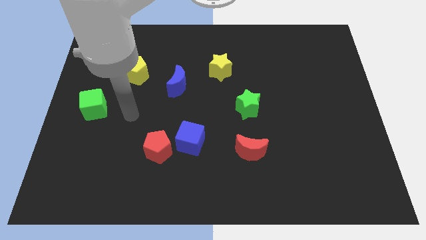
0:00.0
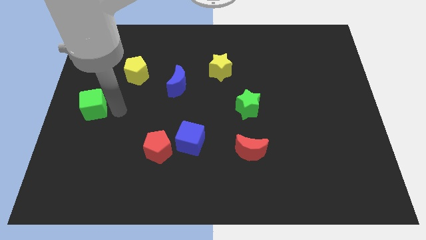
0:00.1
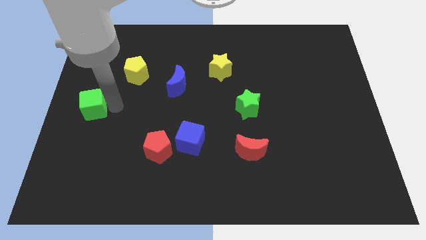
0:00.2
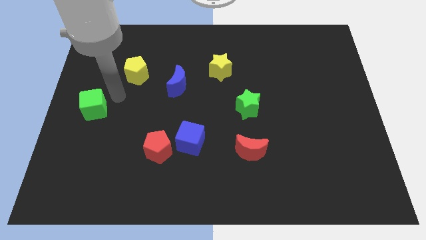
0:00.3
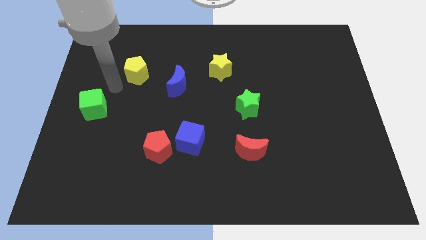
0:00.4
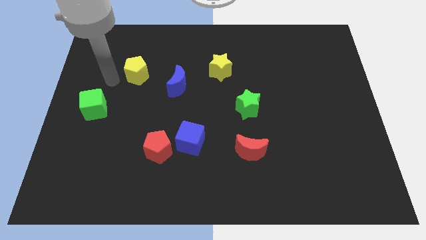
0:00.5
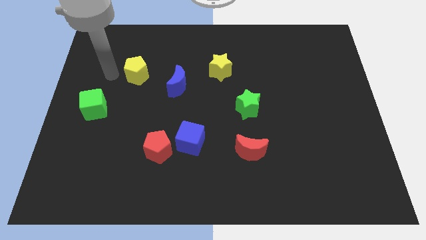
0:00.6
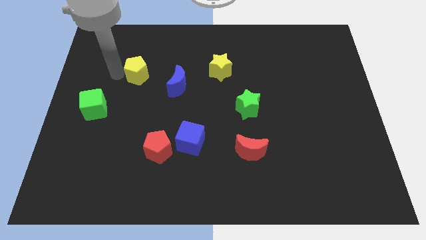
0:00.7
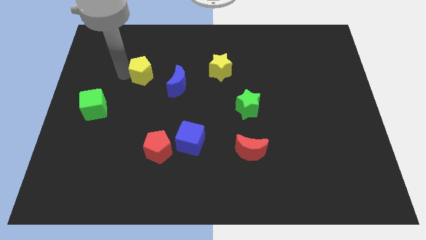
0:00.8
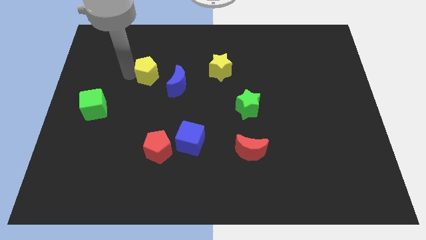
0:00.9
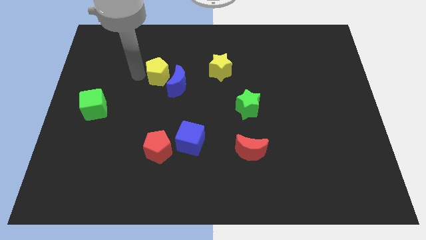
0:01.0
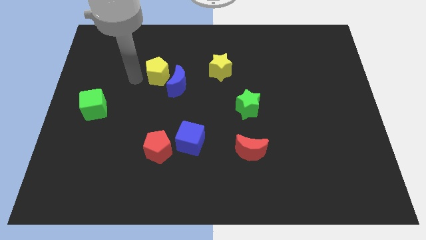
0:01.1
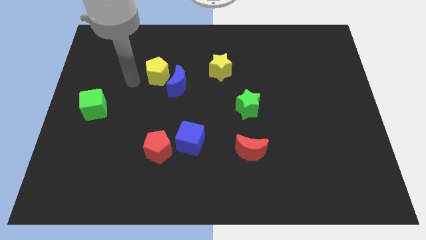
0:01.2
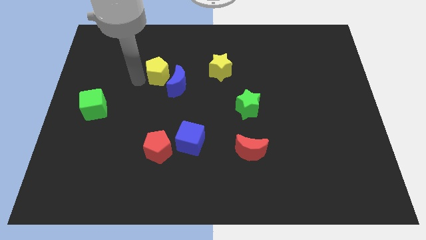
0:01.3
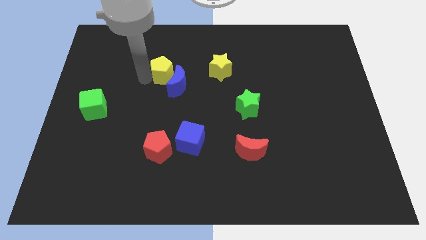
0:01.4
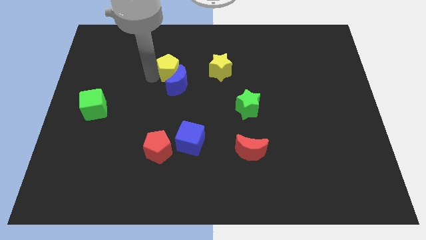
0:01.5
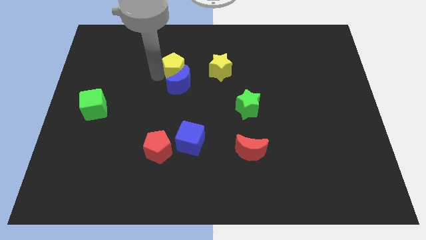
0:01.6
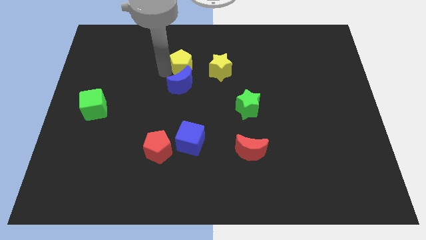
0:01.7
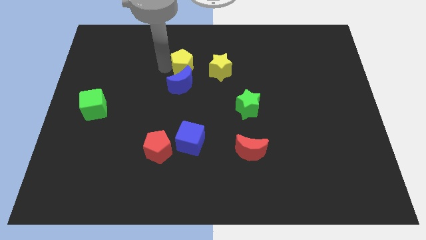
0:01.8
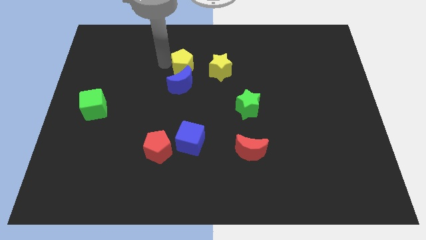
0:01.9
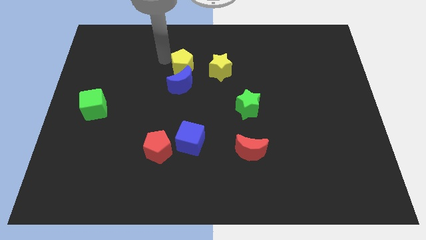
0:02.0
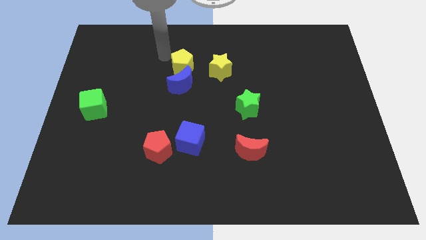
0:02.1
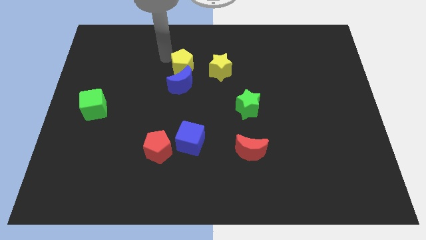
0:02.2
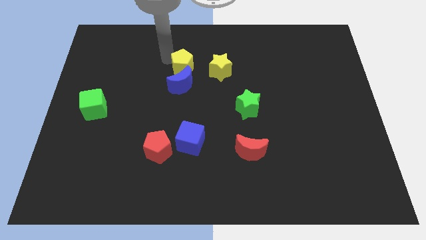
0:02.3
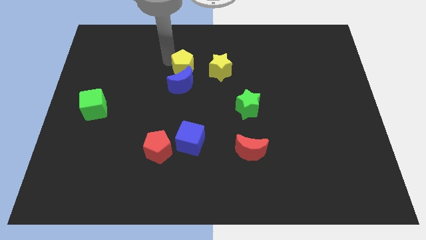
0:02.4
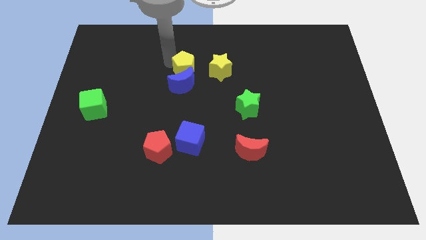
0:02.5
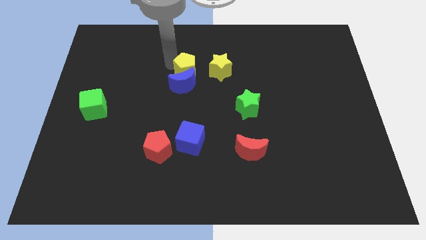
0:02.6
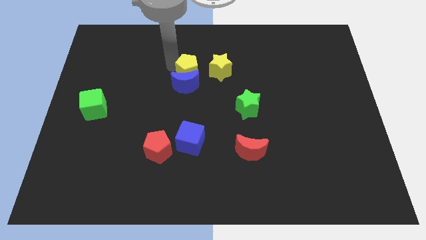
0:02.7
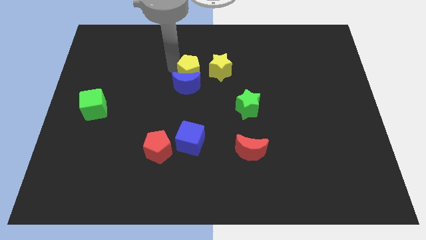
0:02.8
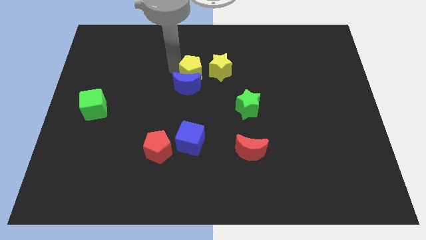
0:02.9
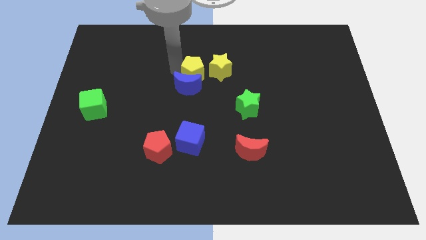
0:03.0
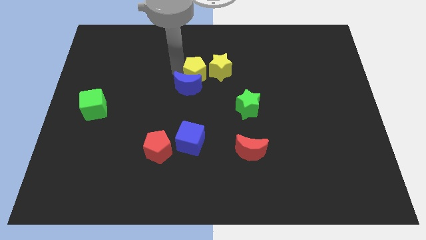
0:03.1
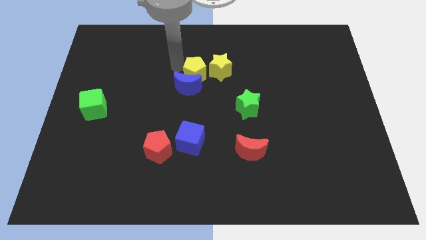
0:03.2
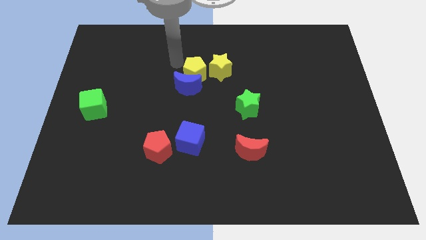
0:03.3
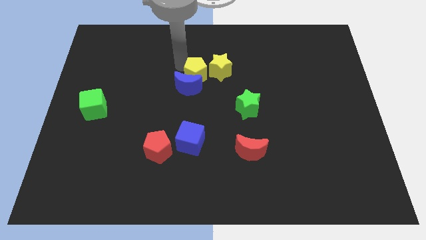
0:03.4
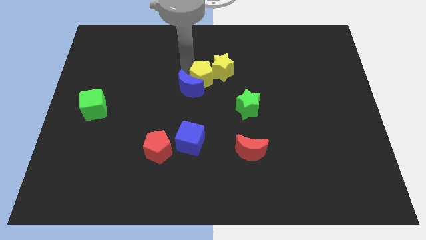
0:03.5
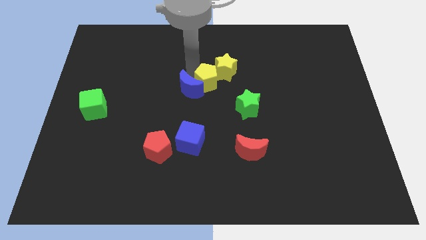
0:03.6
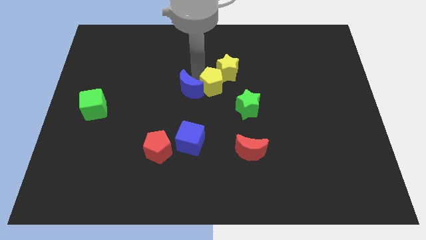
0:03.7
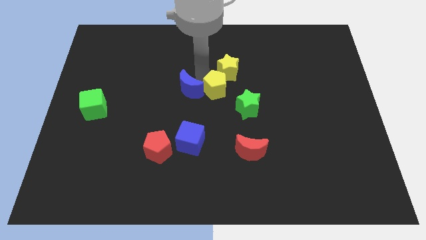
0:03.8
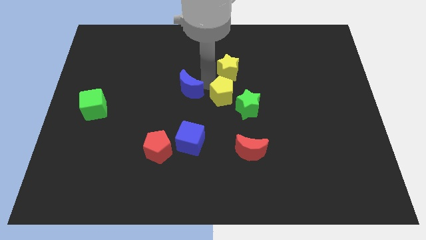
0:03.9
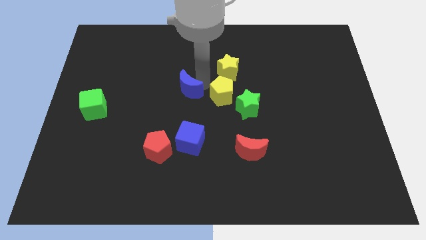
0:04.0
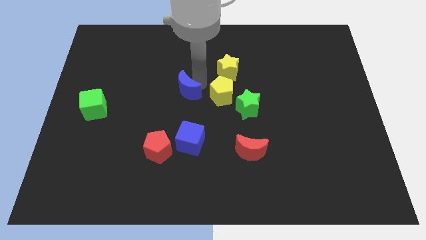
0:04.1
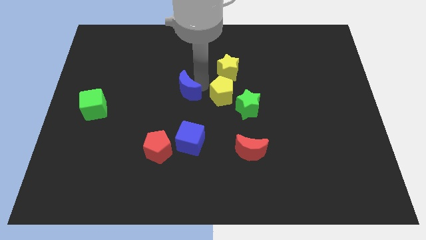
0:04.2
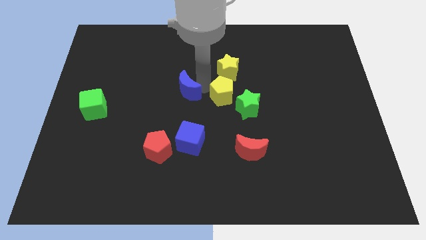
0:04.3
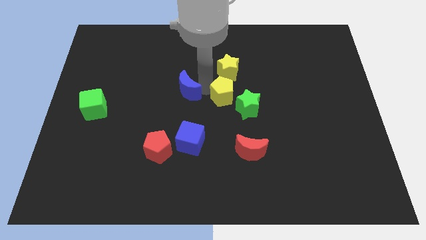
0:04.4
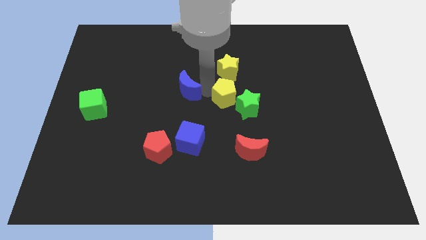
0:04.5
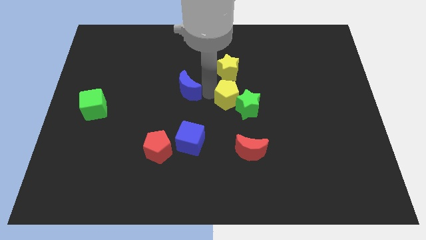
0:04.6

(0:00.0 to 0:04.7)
put the yellow pentagon to the green star

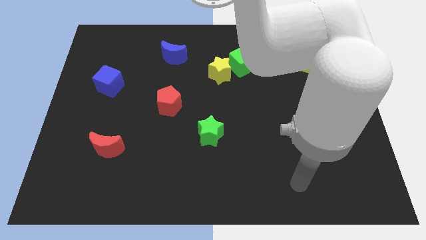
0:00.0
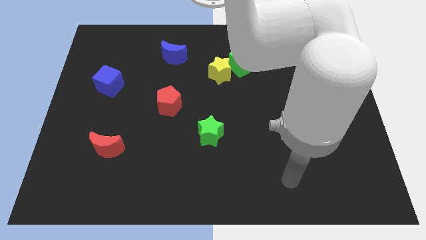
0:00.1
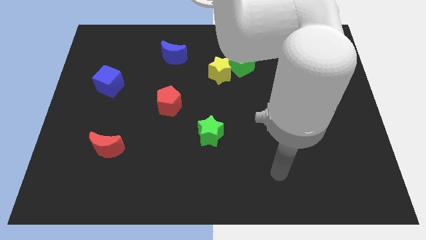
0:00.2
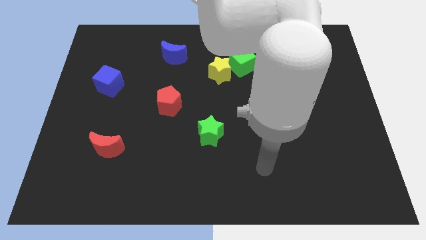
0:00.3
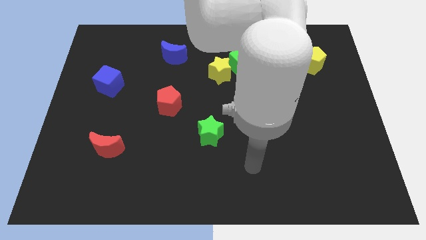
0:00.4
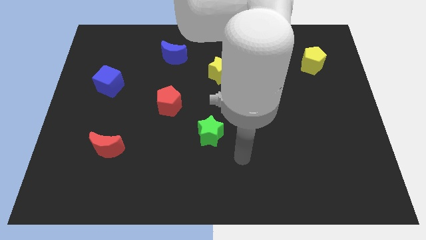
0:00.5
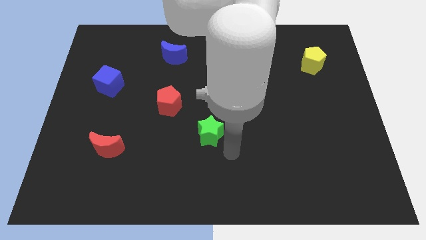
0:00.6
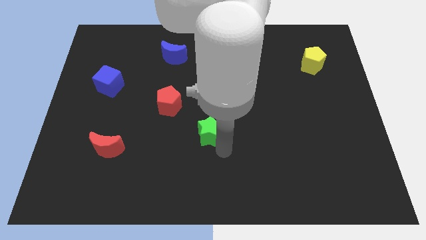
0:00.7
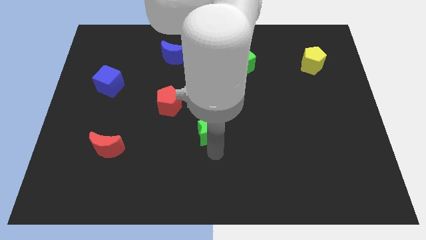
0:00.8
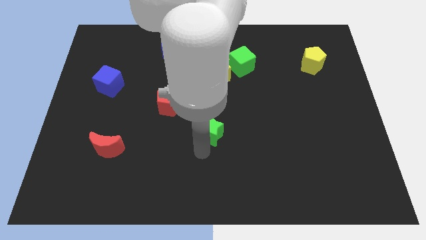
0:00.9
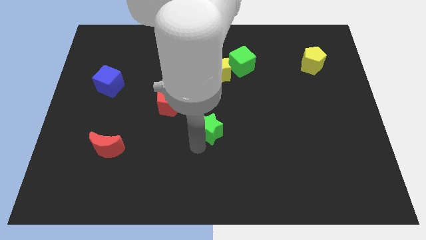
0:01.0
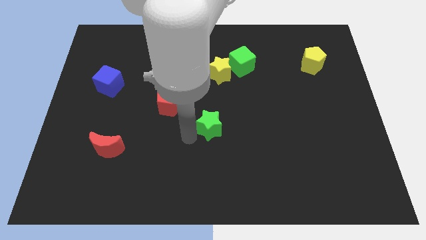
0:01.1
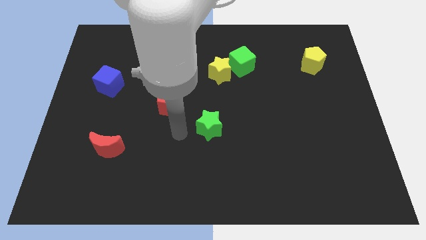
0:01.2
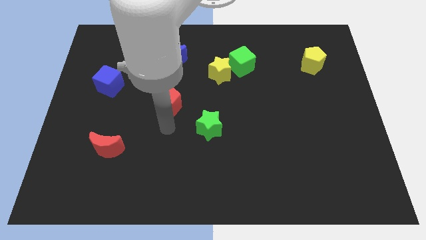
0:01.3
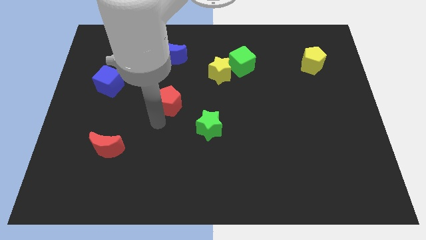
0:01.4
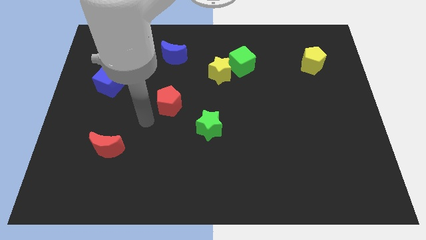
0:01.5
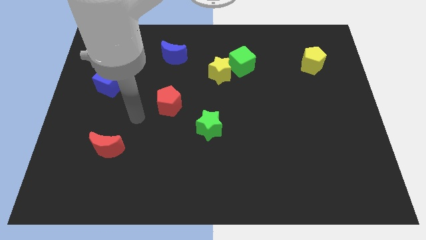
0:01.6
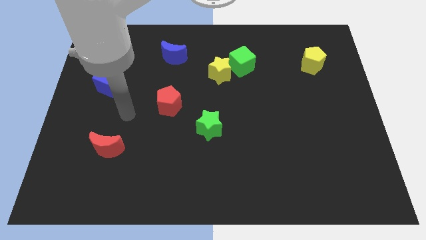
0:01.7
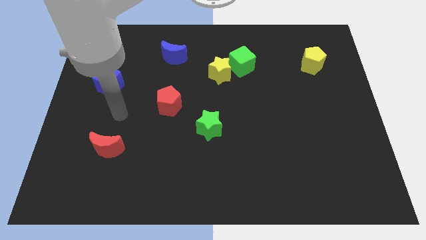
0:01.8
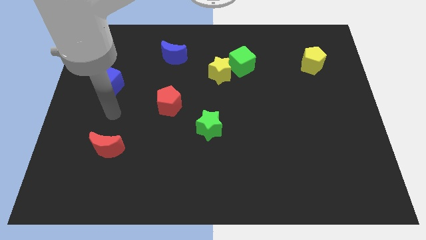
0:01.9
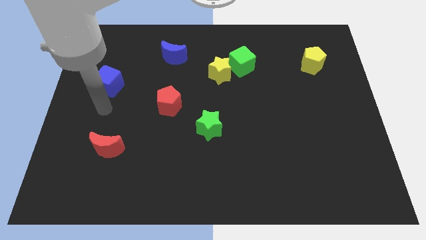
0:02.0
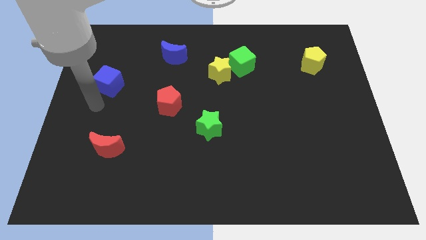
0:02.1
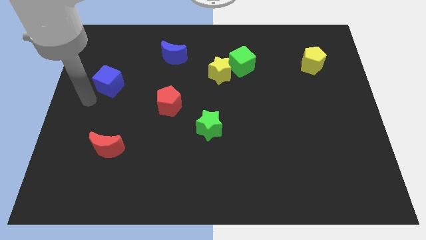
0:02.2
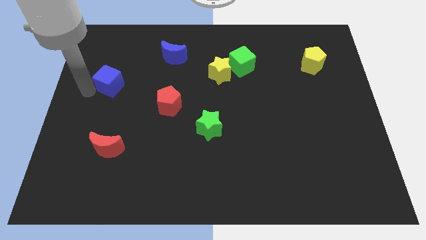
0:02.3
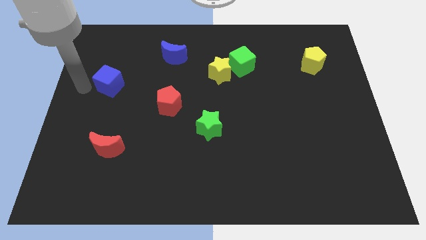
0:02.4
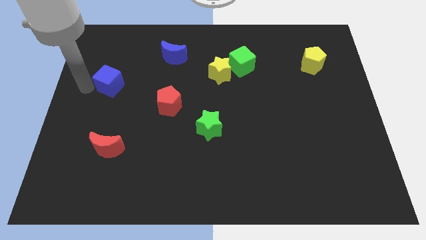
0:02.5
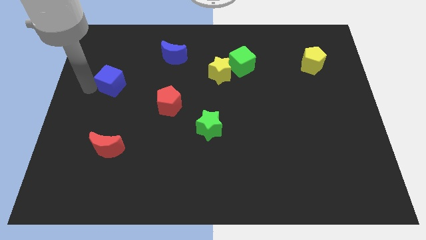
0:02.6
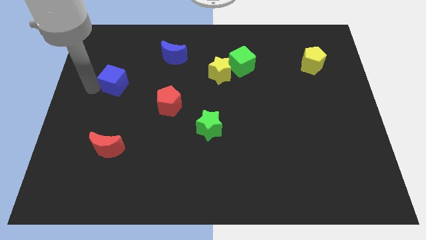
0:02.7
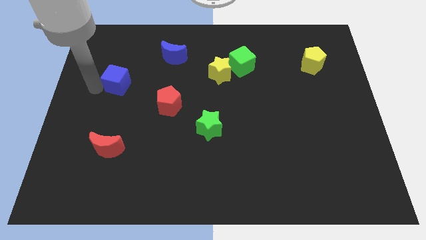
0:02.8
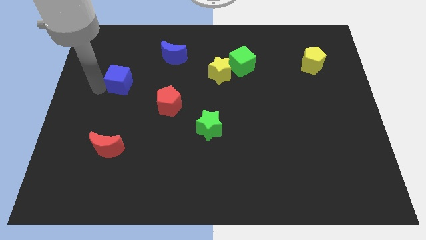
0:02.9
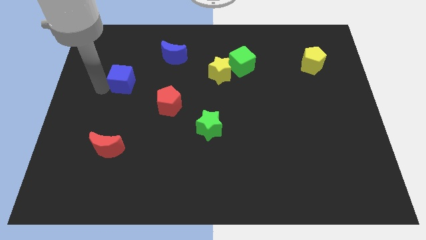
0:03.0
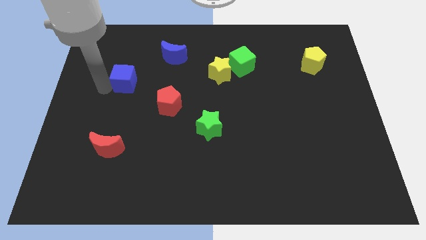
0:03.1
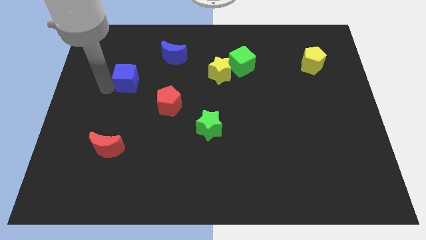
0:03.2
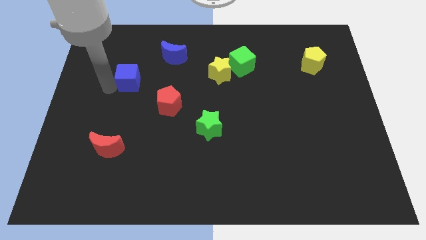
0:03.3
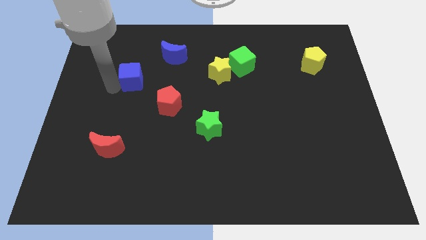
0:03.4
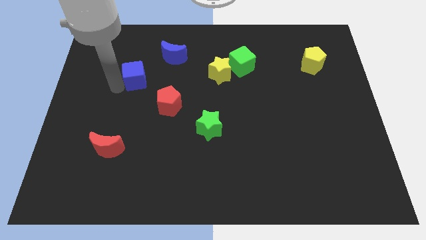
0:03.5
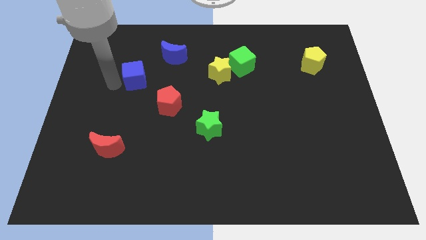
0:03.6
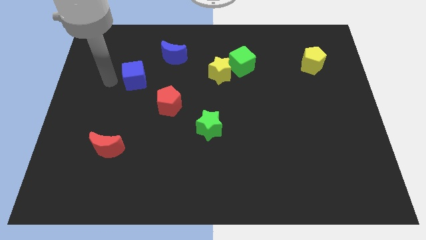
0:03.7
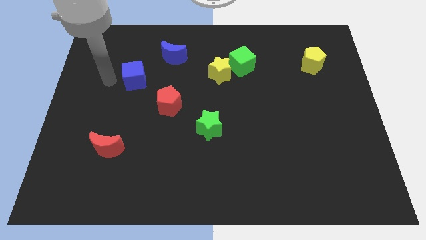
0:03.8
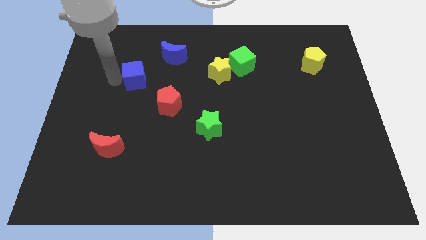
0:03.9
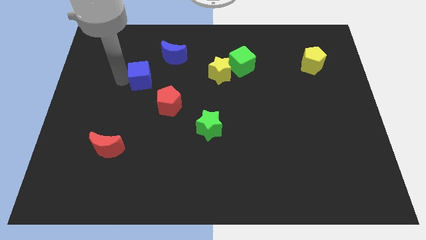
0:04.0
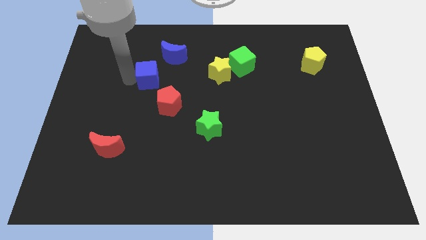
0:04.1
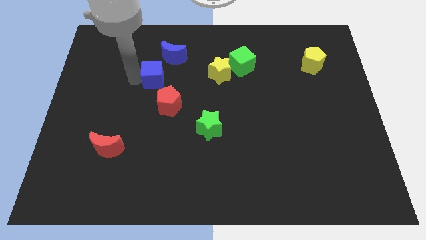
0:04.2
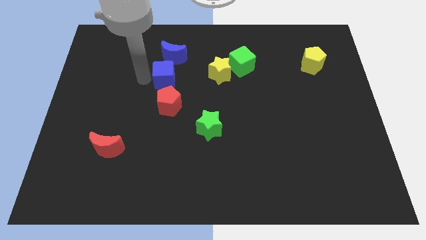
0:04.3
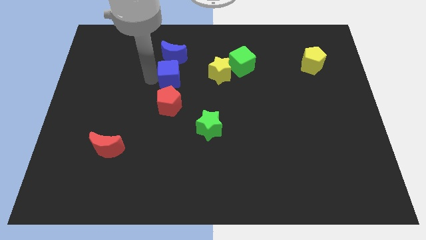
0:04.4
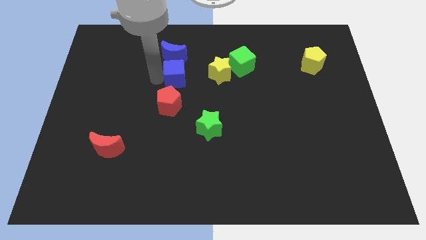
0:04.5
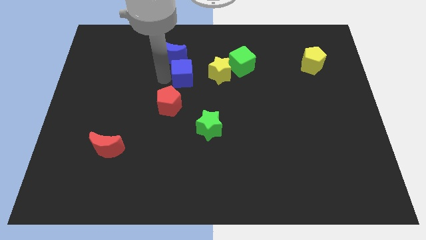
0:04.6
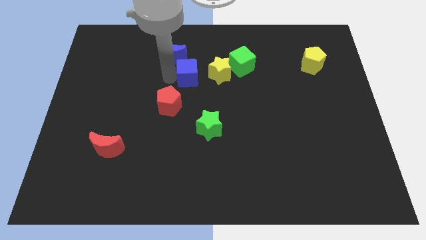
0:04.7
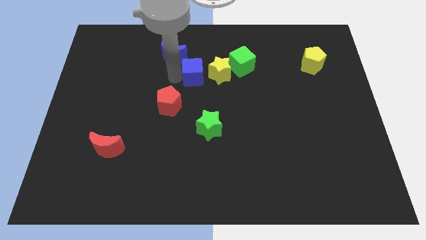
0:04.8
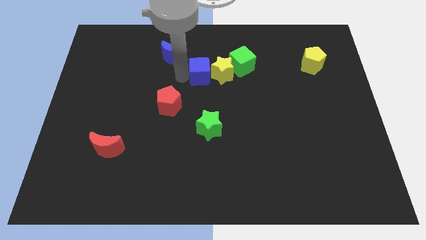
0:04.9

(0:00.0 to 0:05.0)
slide the blue cube towards the yellow star
